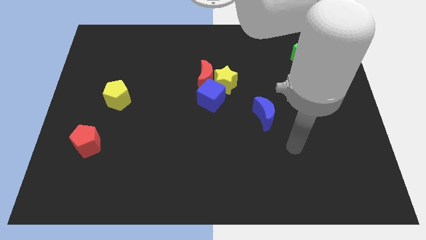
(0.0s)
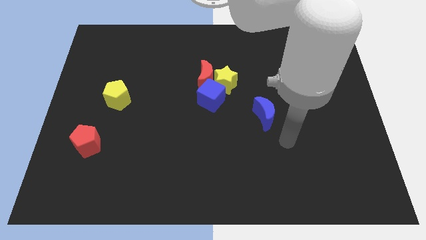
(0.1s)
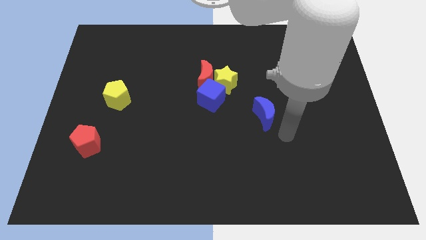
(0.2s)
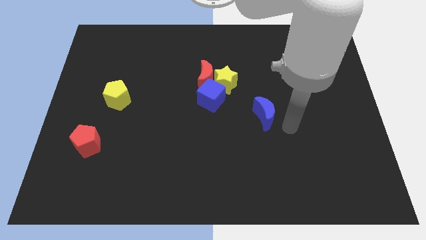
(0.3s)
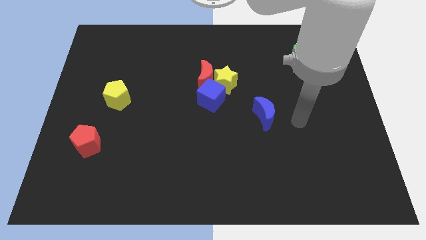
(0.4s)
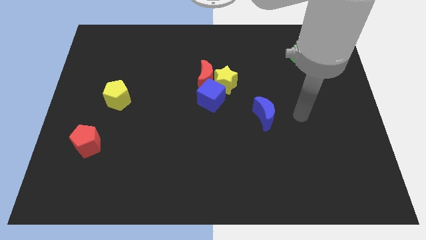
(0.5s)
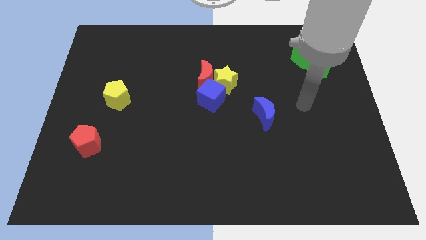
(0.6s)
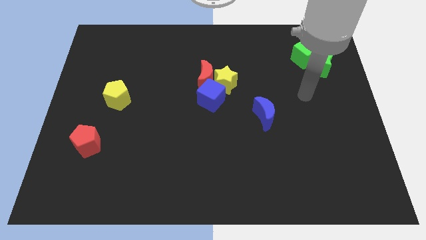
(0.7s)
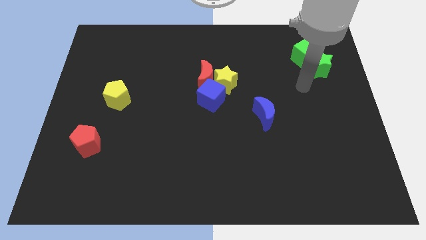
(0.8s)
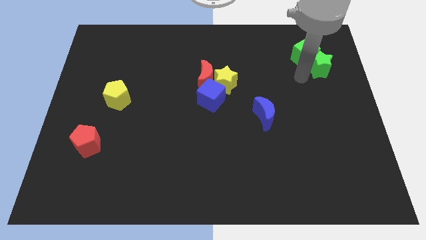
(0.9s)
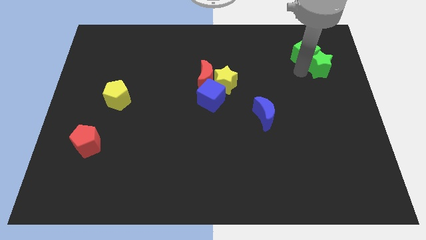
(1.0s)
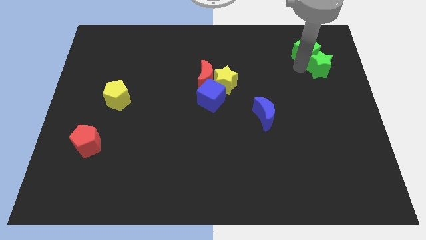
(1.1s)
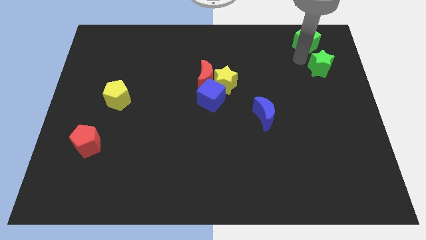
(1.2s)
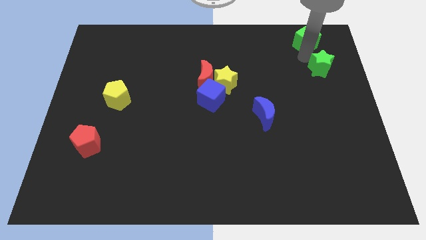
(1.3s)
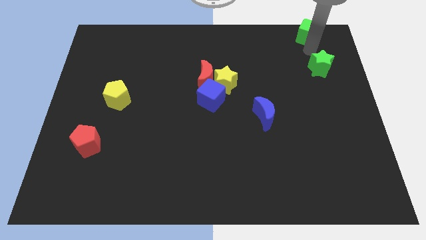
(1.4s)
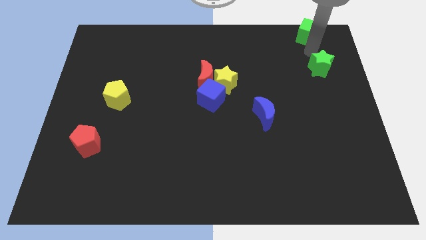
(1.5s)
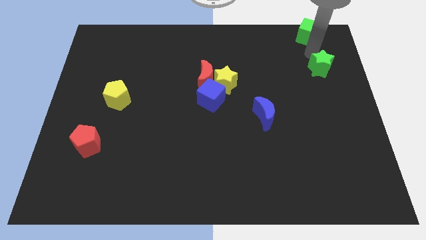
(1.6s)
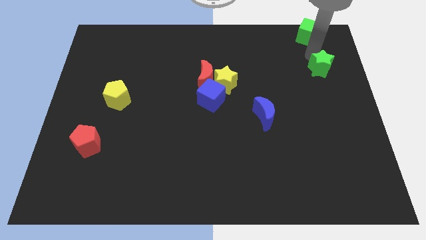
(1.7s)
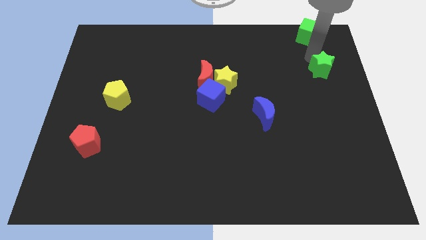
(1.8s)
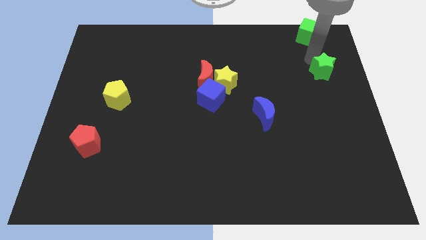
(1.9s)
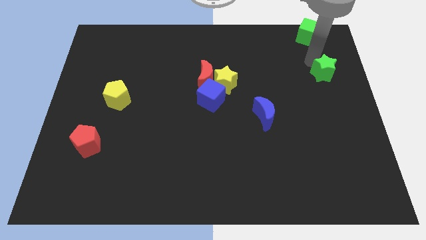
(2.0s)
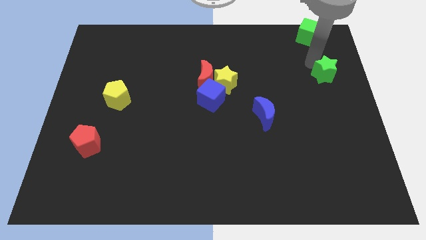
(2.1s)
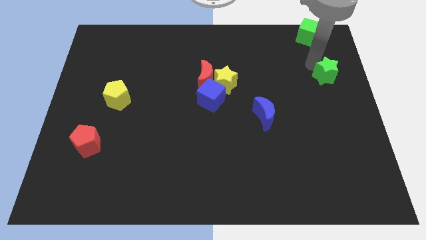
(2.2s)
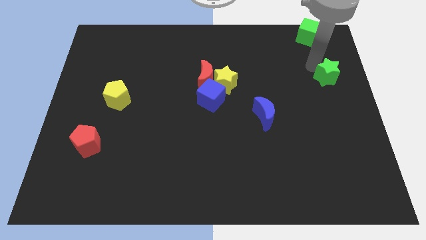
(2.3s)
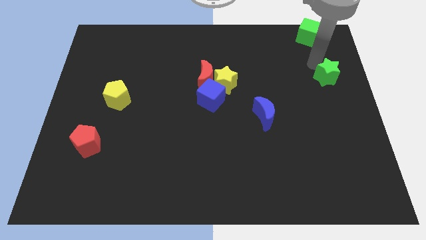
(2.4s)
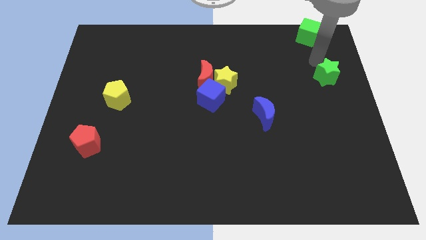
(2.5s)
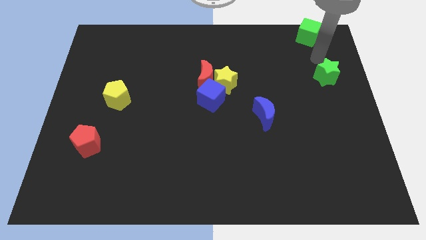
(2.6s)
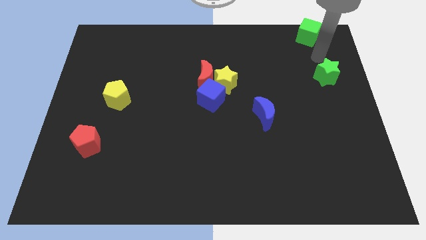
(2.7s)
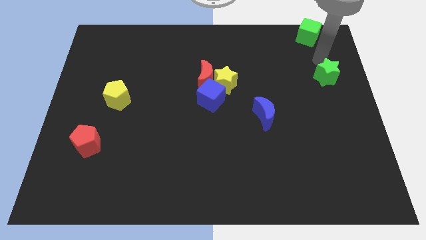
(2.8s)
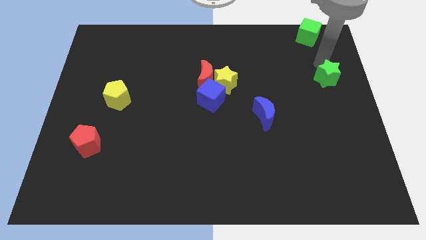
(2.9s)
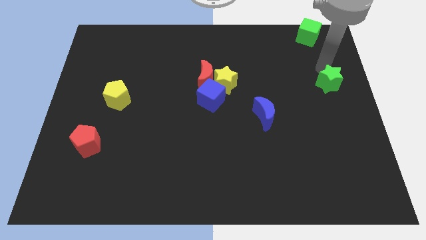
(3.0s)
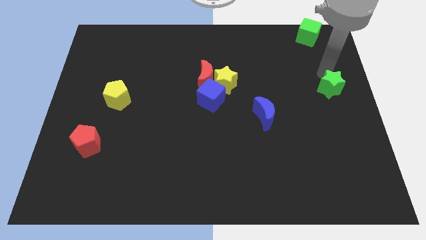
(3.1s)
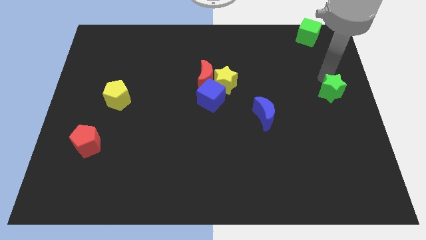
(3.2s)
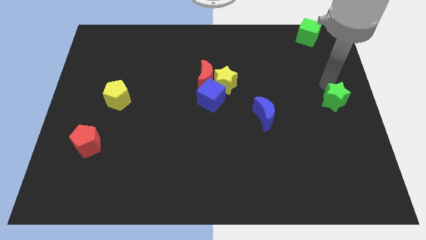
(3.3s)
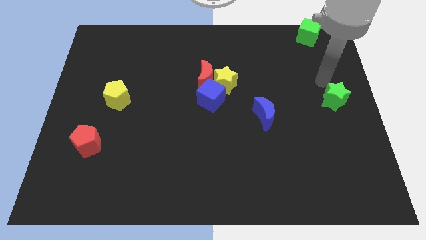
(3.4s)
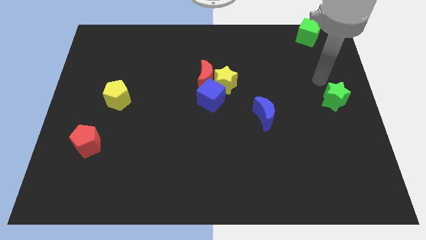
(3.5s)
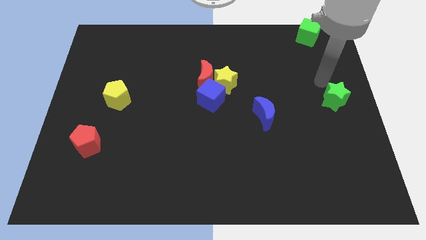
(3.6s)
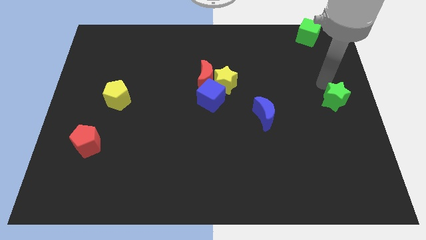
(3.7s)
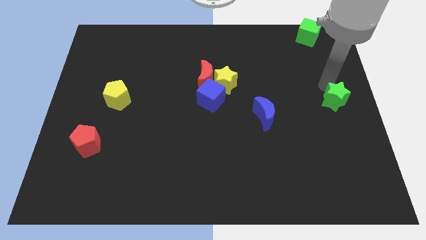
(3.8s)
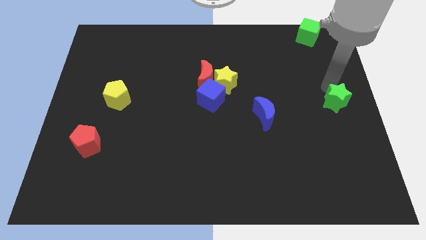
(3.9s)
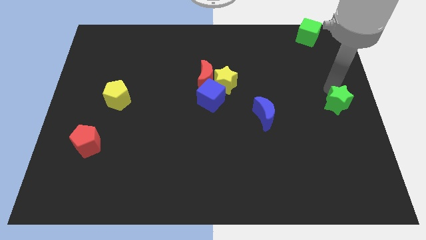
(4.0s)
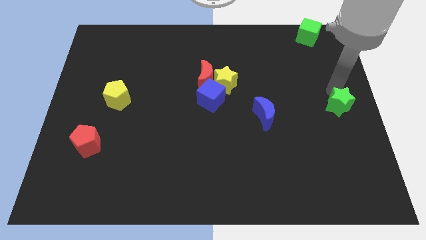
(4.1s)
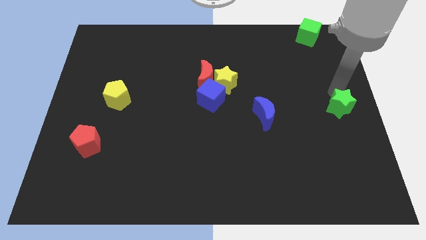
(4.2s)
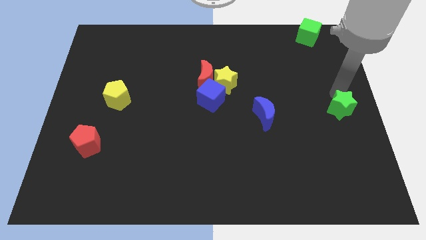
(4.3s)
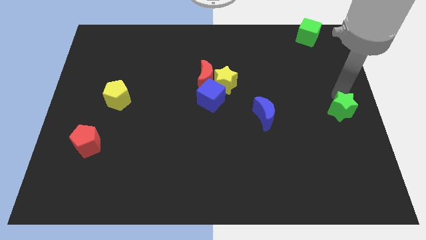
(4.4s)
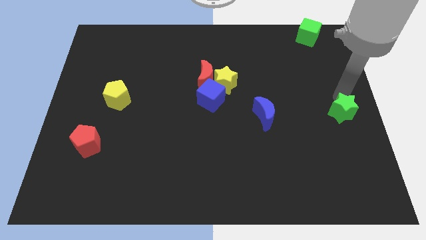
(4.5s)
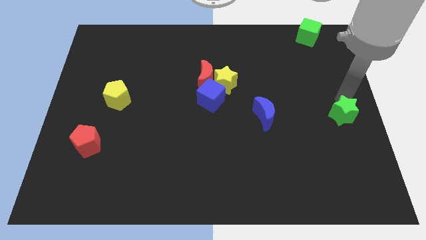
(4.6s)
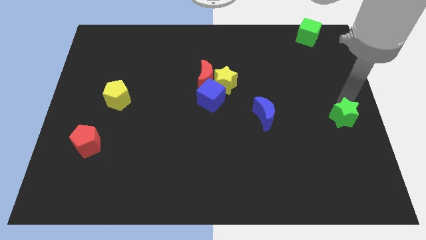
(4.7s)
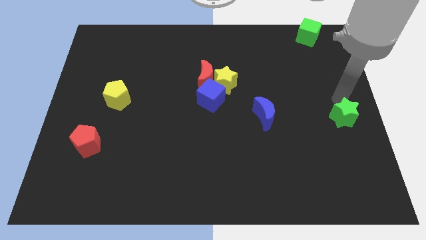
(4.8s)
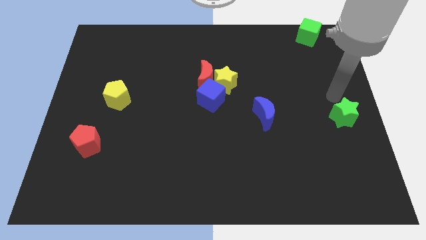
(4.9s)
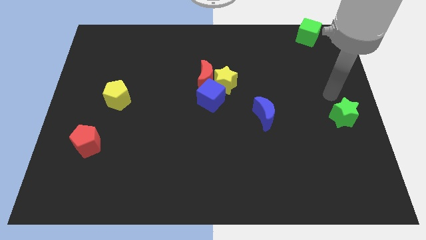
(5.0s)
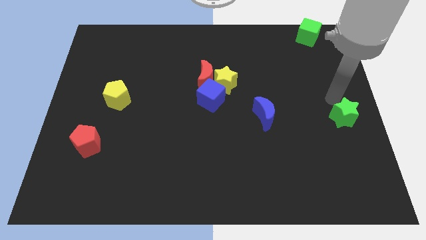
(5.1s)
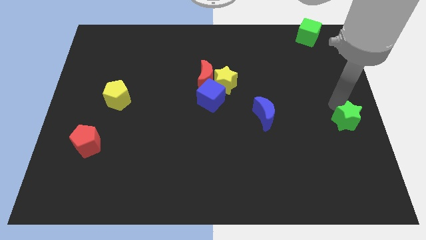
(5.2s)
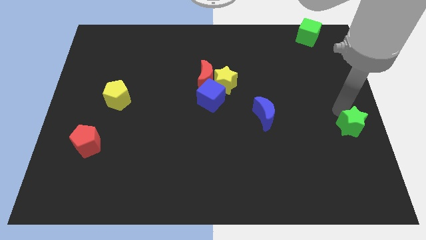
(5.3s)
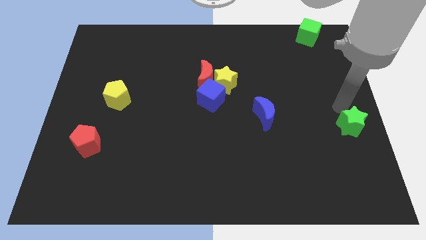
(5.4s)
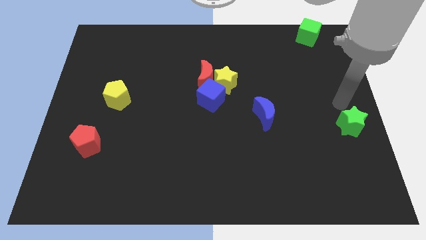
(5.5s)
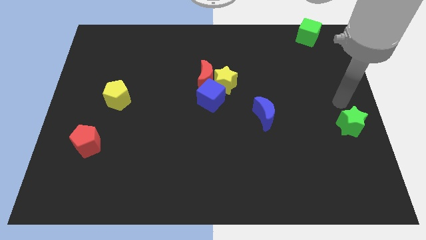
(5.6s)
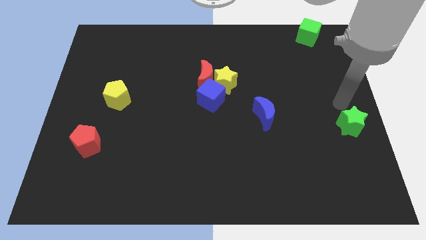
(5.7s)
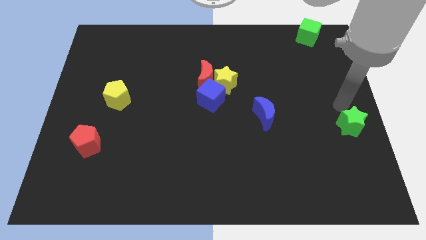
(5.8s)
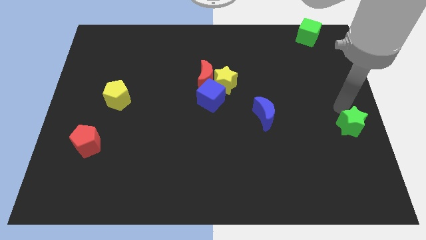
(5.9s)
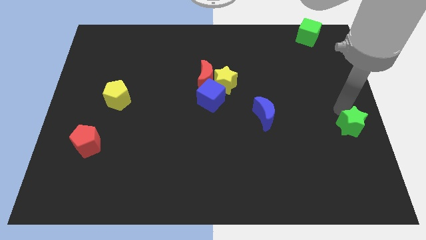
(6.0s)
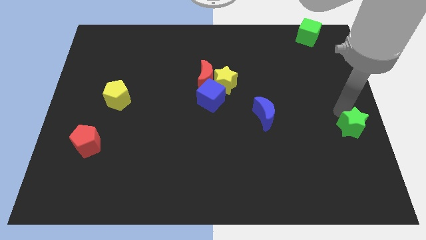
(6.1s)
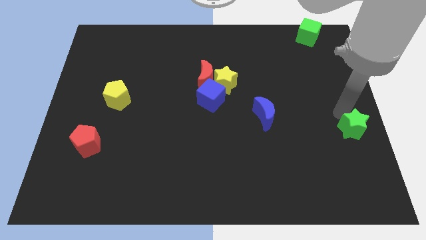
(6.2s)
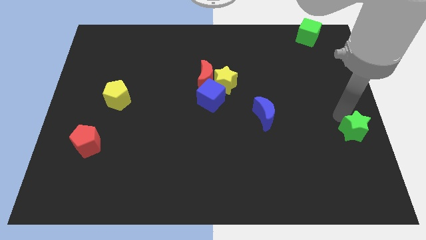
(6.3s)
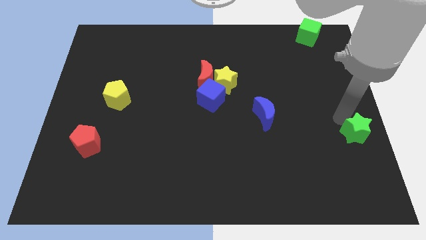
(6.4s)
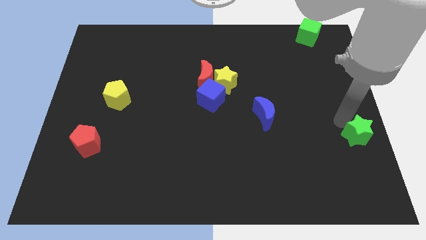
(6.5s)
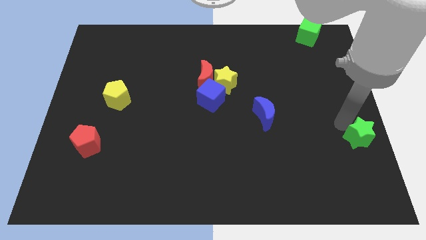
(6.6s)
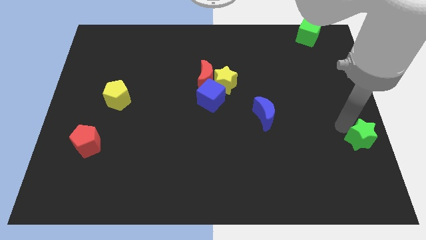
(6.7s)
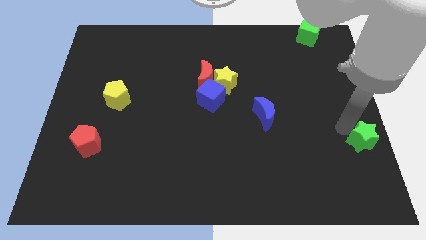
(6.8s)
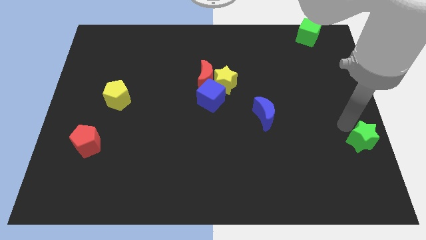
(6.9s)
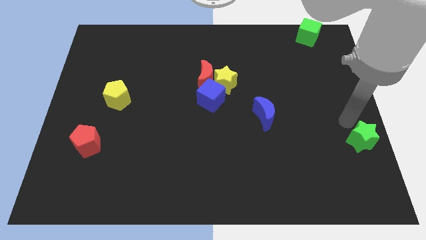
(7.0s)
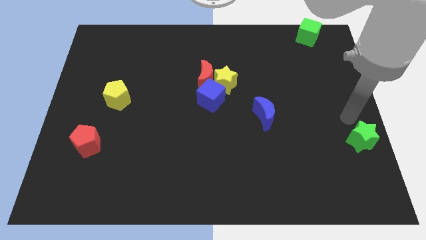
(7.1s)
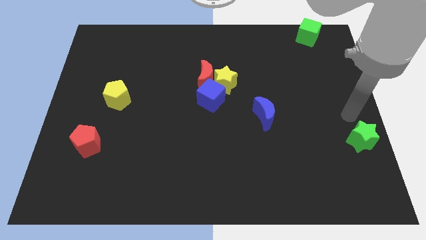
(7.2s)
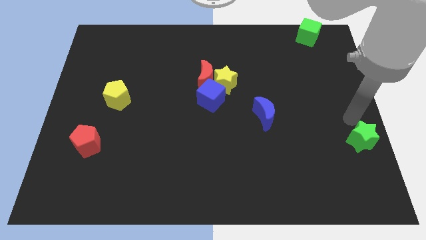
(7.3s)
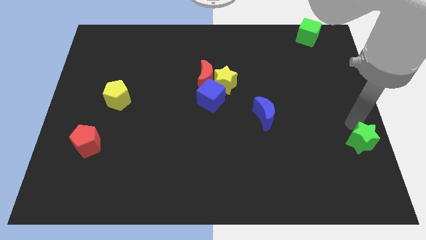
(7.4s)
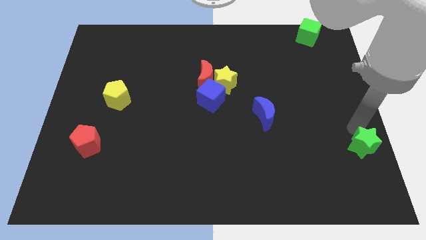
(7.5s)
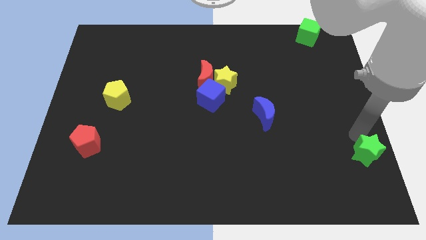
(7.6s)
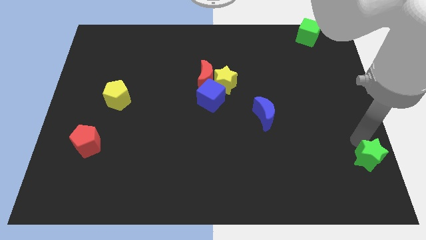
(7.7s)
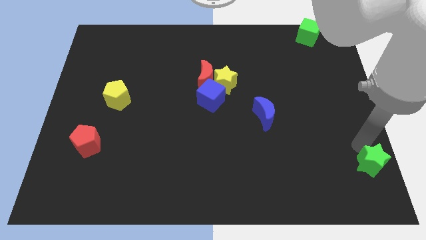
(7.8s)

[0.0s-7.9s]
move the green star to the bottom right corner
